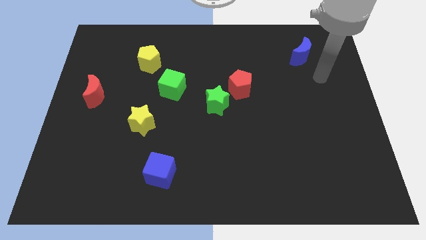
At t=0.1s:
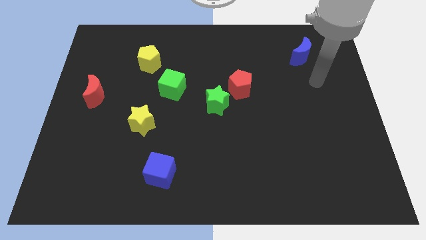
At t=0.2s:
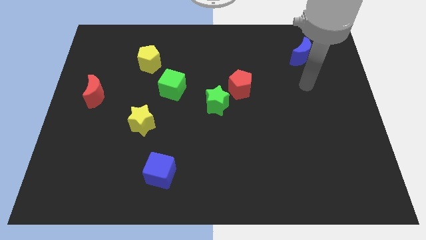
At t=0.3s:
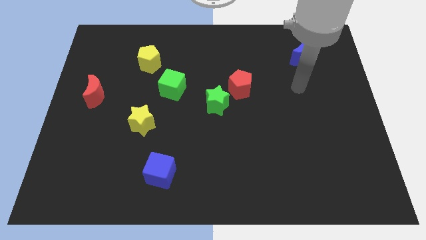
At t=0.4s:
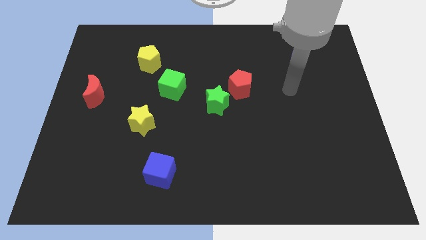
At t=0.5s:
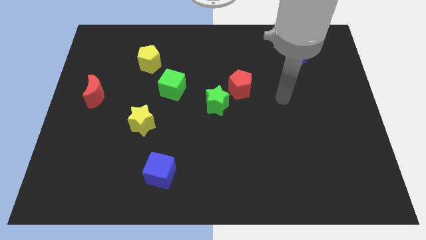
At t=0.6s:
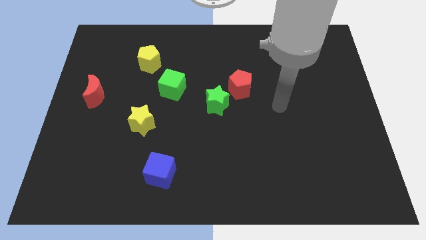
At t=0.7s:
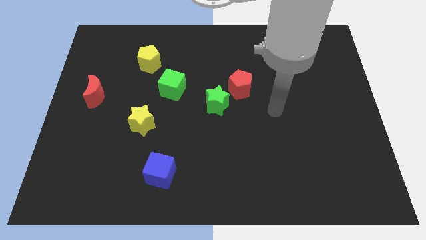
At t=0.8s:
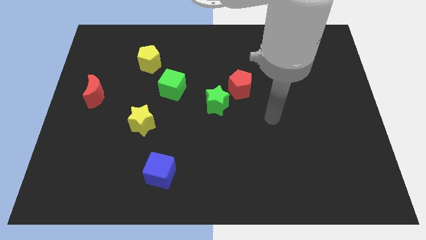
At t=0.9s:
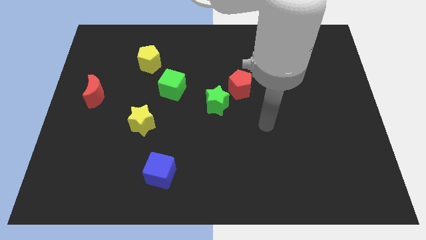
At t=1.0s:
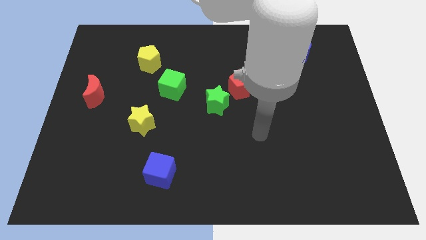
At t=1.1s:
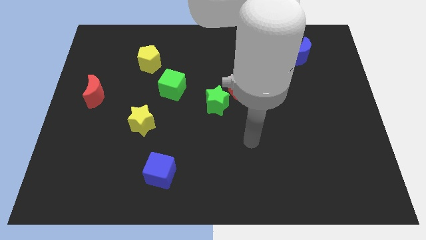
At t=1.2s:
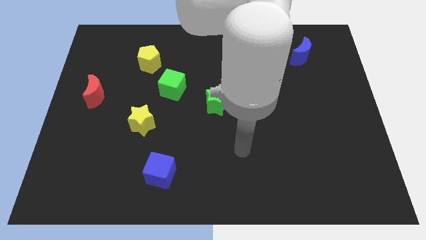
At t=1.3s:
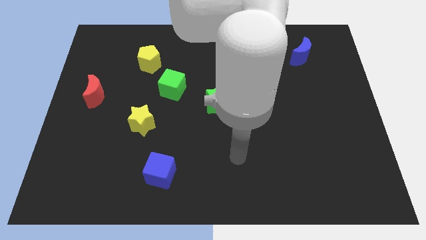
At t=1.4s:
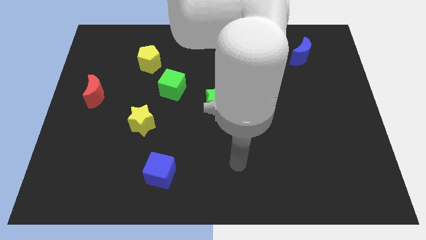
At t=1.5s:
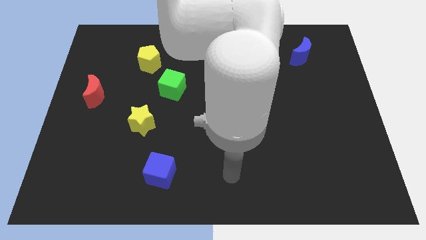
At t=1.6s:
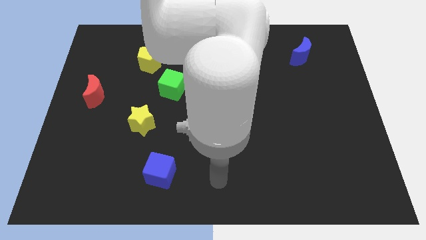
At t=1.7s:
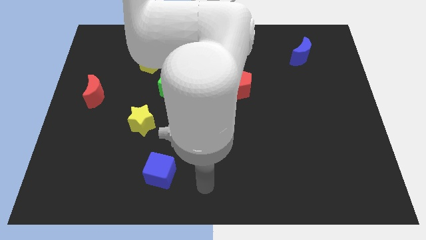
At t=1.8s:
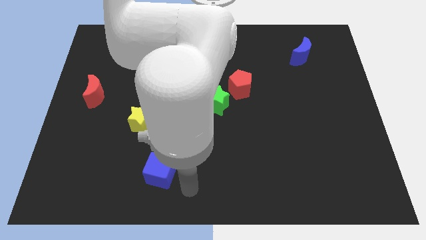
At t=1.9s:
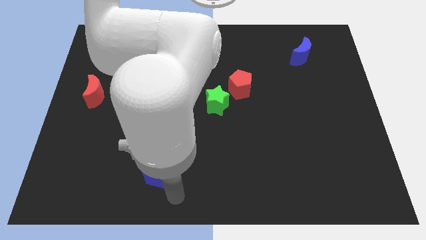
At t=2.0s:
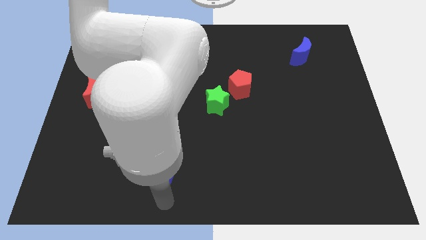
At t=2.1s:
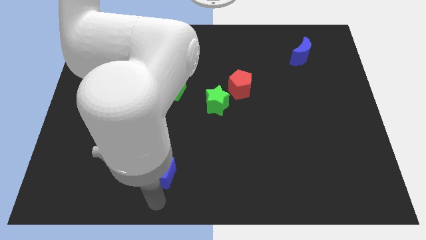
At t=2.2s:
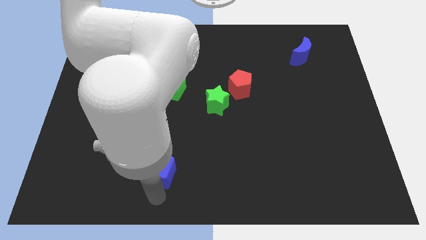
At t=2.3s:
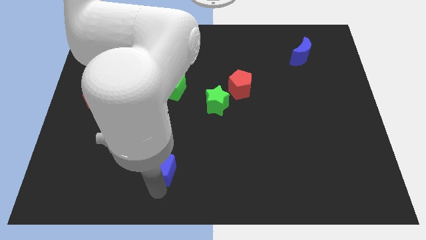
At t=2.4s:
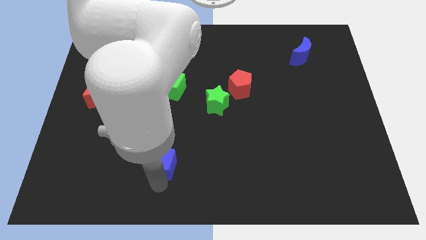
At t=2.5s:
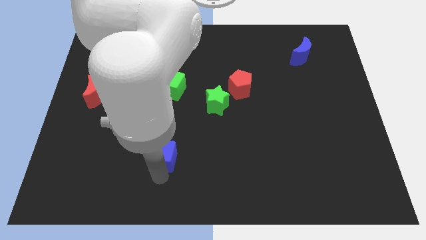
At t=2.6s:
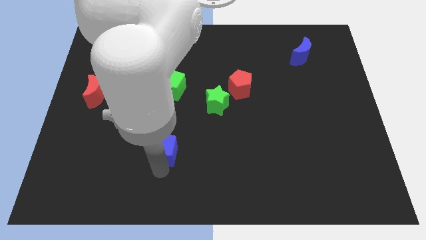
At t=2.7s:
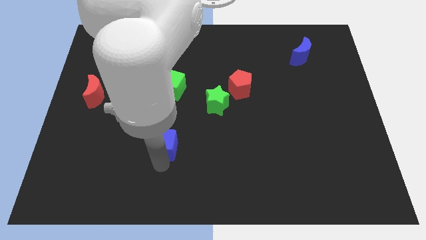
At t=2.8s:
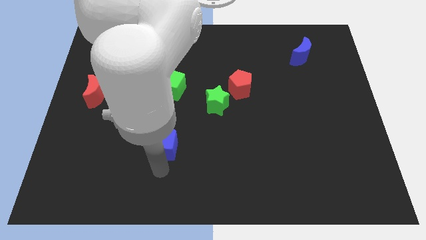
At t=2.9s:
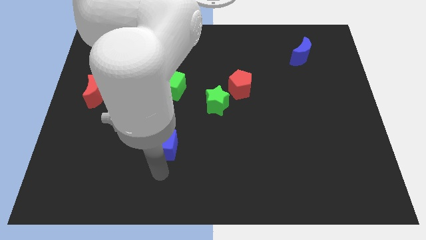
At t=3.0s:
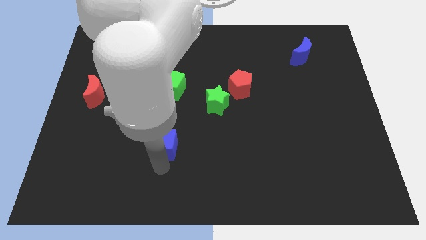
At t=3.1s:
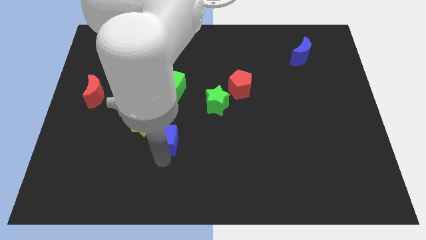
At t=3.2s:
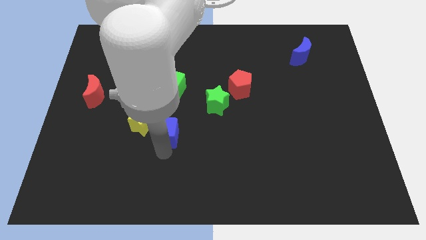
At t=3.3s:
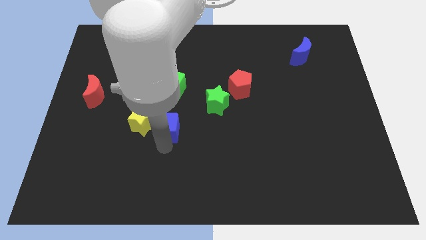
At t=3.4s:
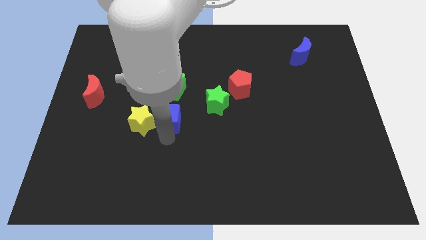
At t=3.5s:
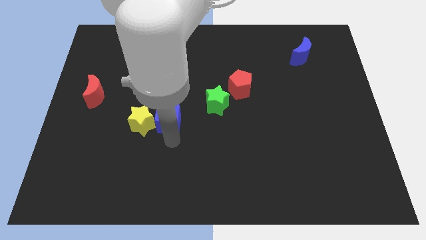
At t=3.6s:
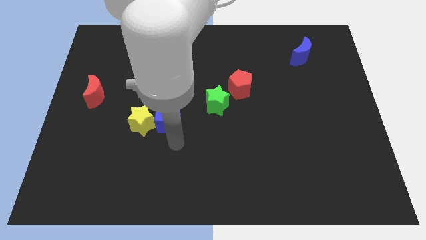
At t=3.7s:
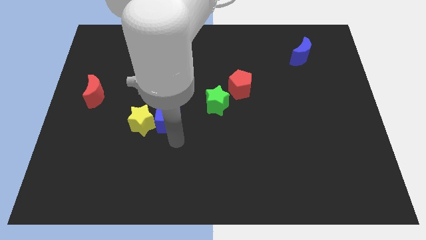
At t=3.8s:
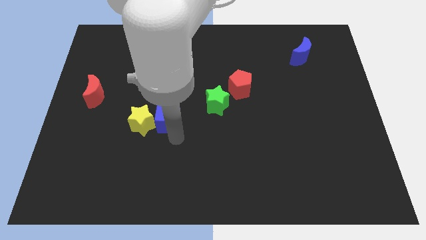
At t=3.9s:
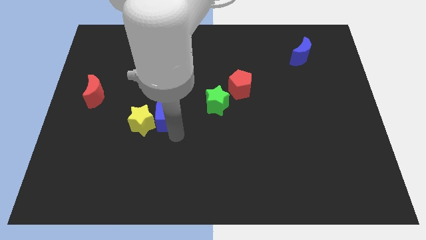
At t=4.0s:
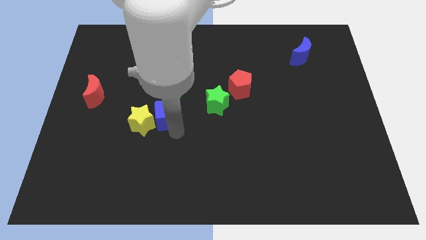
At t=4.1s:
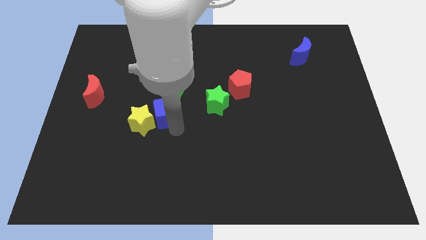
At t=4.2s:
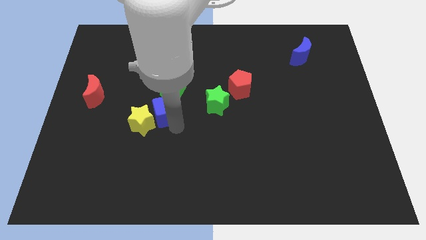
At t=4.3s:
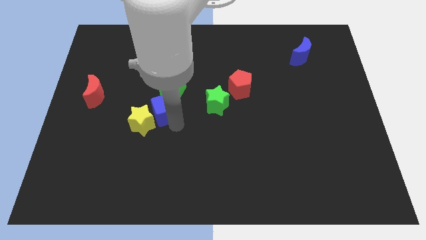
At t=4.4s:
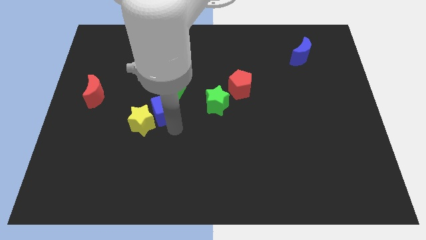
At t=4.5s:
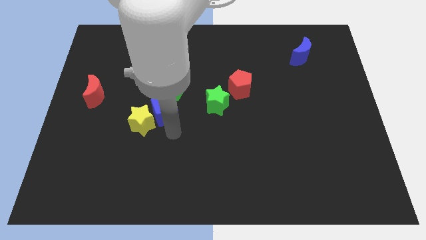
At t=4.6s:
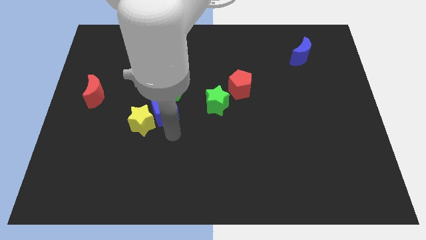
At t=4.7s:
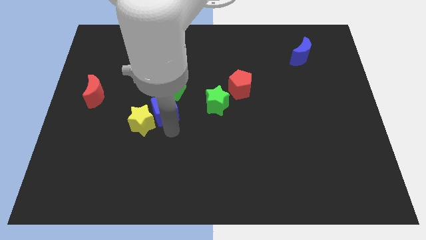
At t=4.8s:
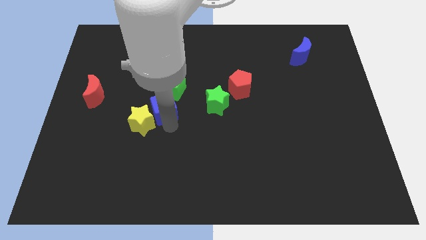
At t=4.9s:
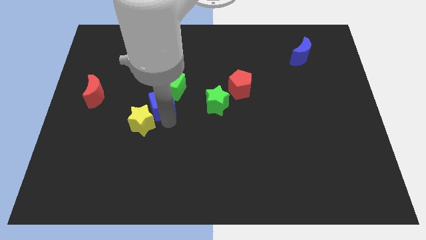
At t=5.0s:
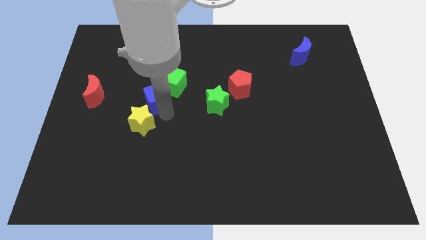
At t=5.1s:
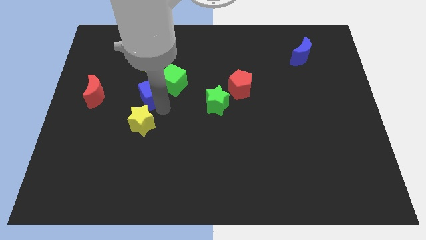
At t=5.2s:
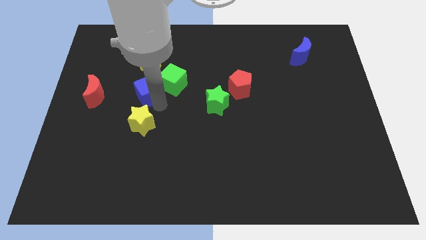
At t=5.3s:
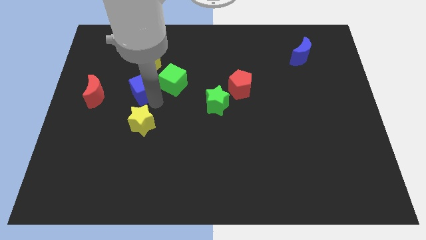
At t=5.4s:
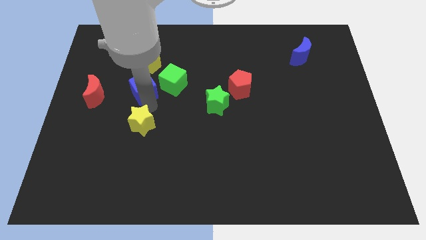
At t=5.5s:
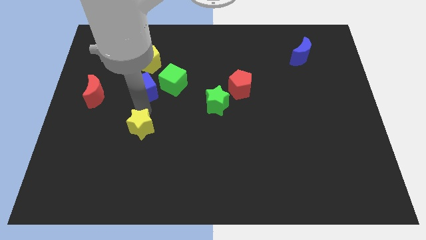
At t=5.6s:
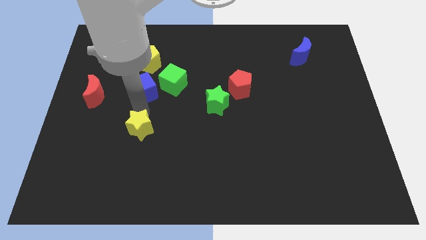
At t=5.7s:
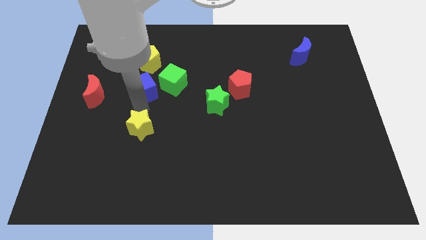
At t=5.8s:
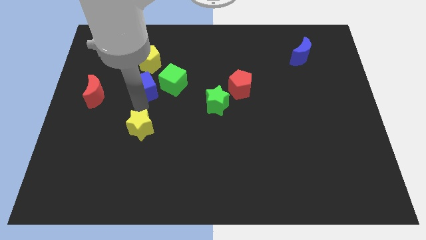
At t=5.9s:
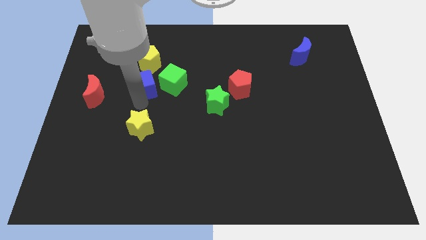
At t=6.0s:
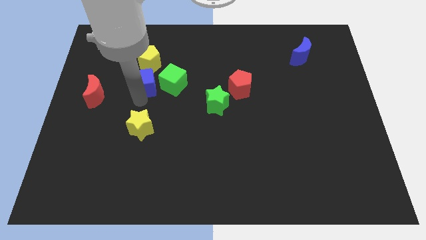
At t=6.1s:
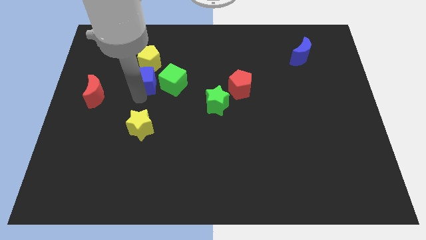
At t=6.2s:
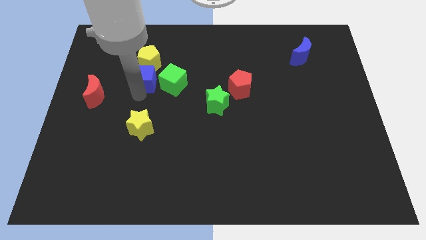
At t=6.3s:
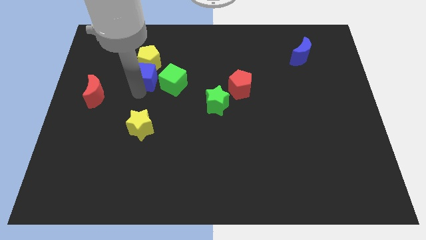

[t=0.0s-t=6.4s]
move the blue cube close to the yellow pentagon

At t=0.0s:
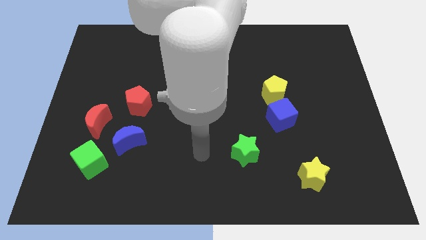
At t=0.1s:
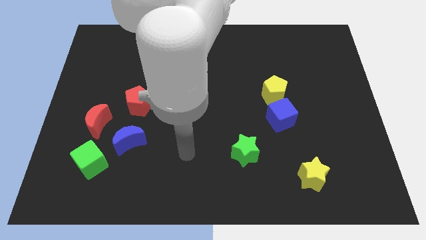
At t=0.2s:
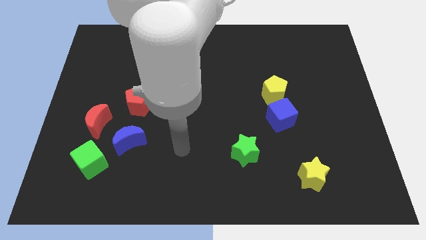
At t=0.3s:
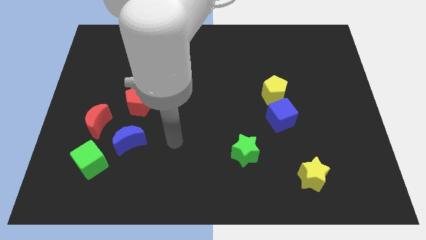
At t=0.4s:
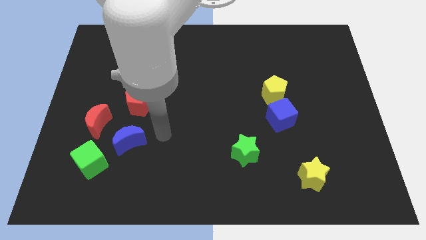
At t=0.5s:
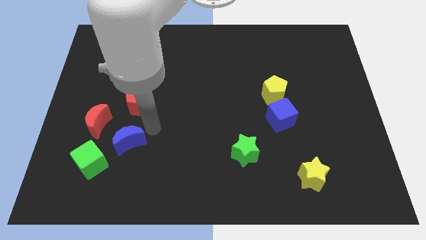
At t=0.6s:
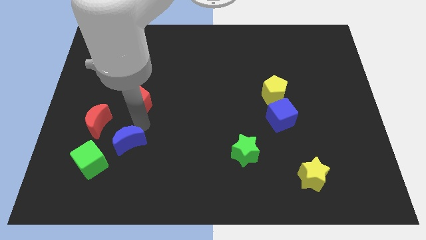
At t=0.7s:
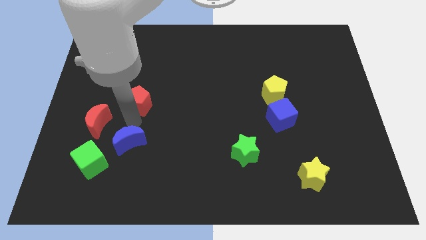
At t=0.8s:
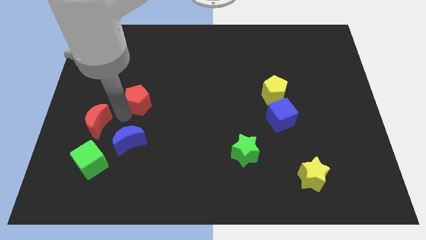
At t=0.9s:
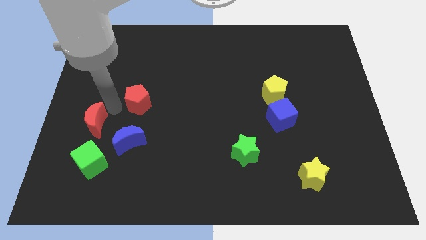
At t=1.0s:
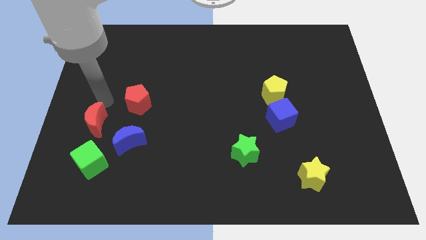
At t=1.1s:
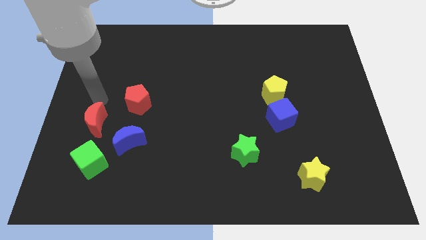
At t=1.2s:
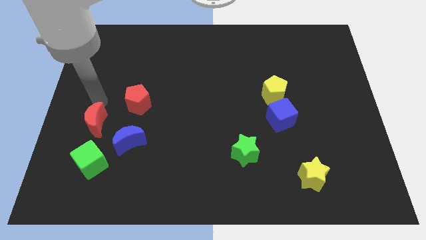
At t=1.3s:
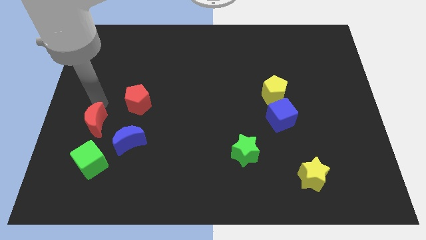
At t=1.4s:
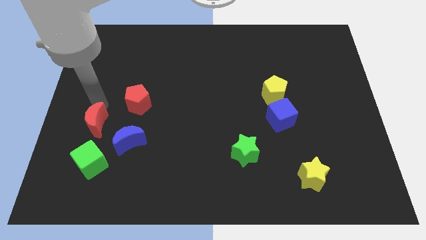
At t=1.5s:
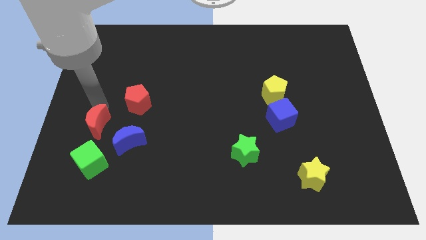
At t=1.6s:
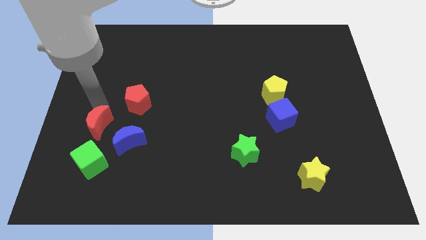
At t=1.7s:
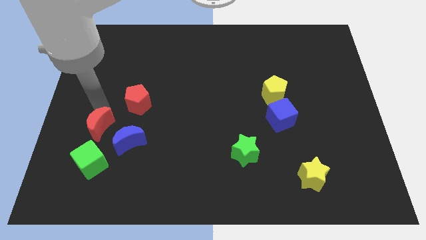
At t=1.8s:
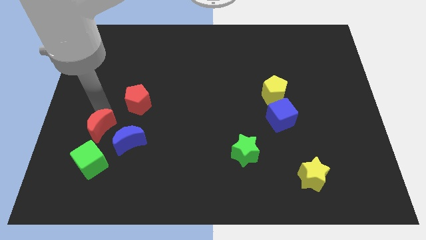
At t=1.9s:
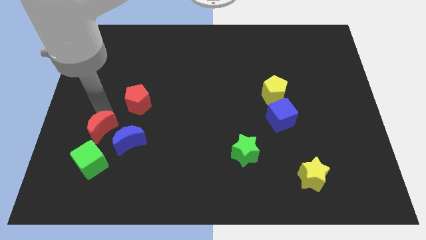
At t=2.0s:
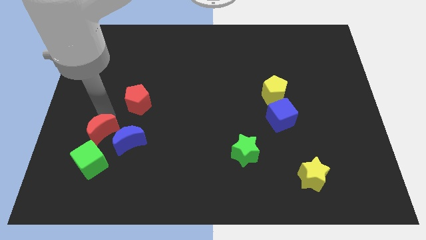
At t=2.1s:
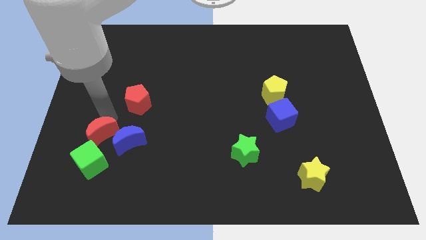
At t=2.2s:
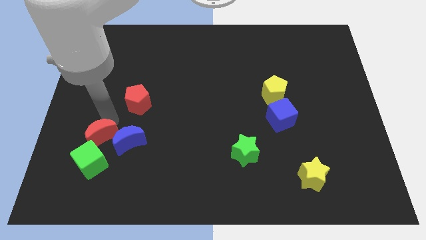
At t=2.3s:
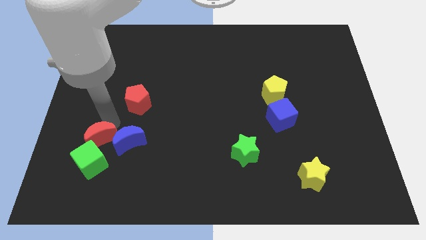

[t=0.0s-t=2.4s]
slide the red moon next to the green cube
